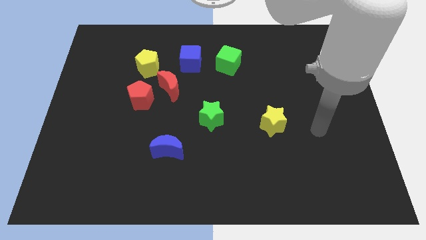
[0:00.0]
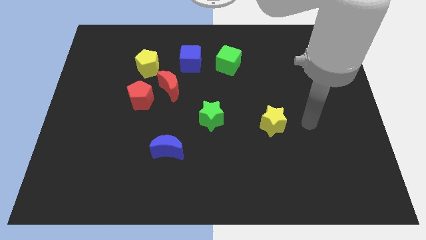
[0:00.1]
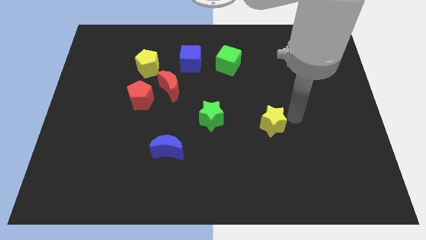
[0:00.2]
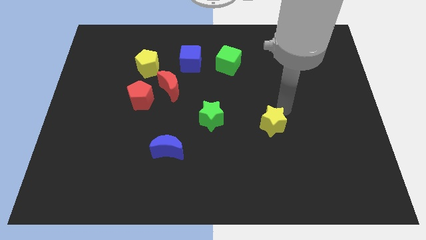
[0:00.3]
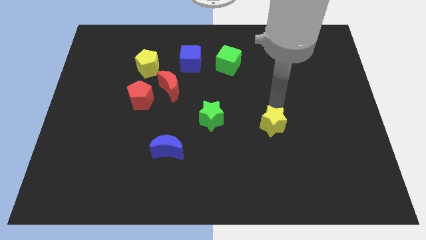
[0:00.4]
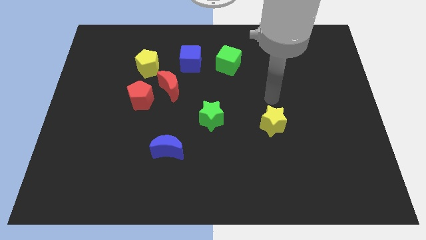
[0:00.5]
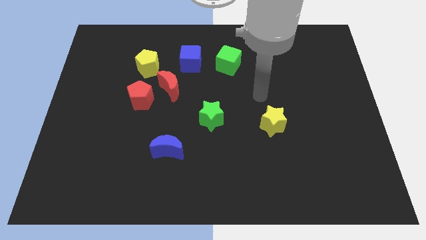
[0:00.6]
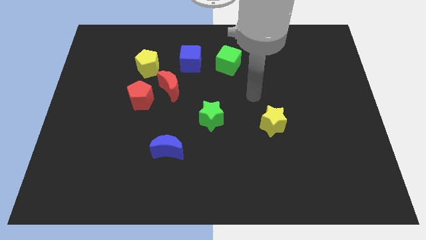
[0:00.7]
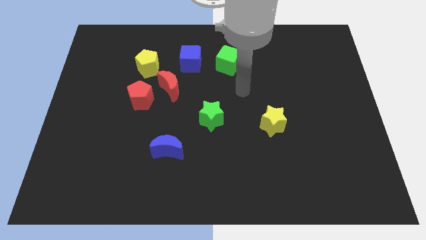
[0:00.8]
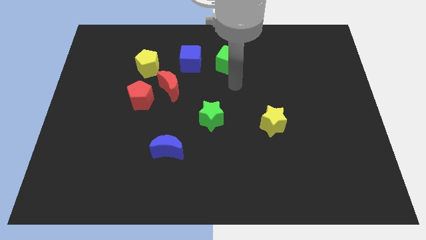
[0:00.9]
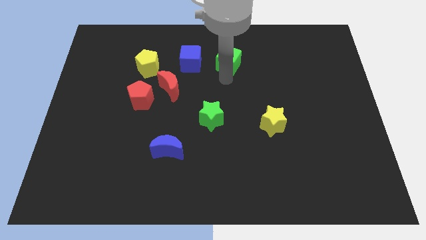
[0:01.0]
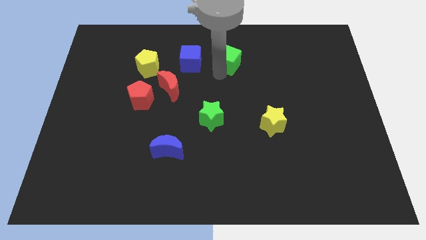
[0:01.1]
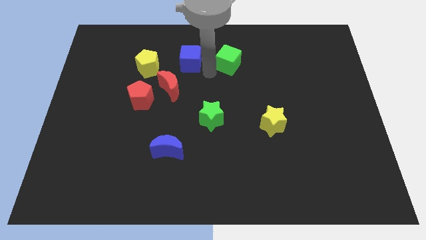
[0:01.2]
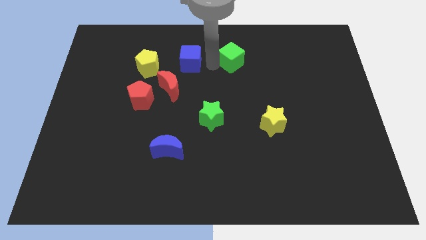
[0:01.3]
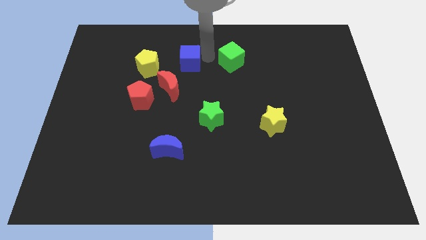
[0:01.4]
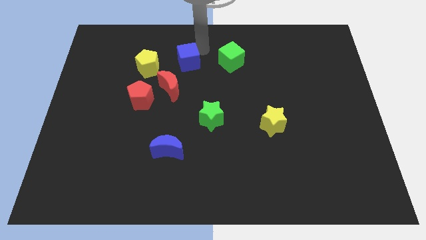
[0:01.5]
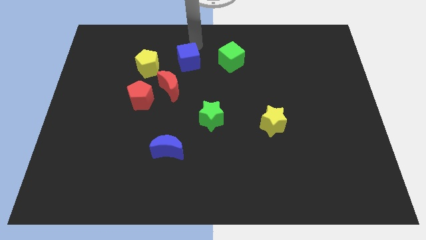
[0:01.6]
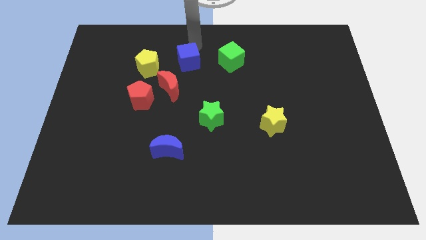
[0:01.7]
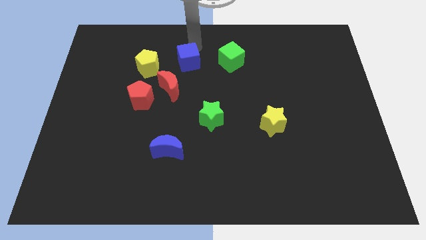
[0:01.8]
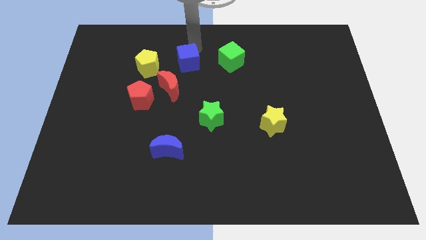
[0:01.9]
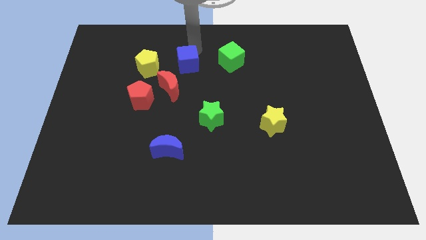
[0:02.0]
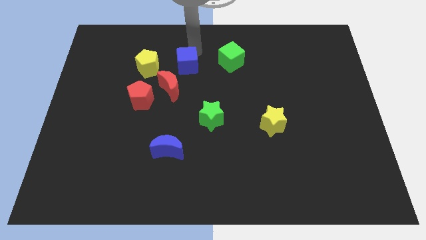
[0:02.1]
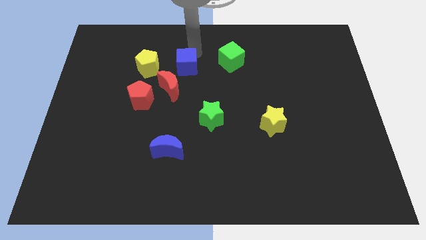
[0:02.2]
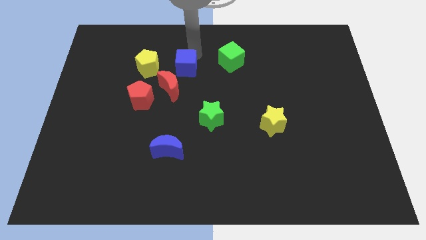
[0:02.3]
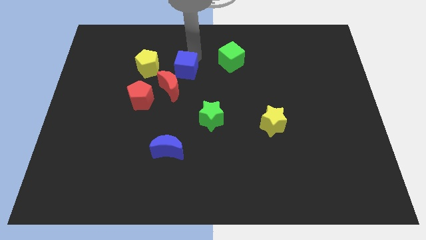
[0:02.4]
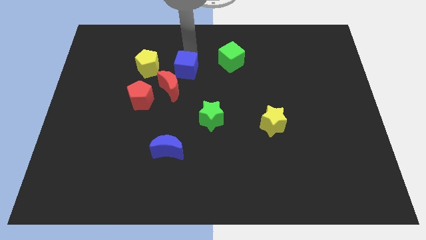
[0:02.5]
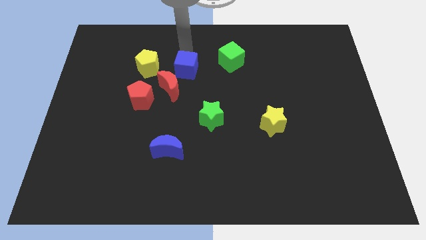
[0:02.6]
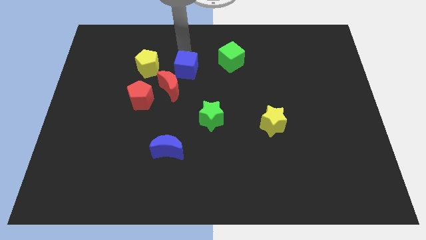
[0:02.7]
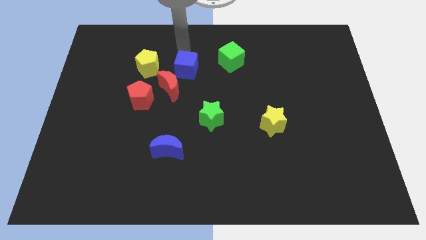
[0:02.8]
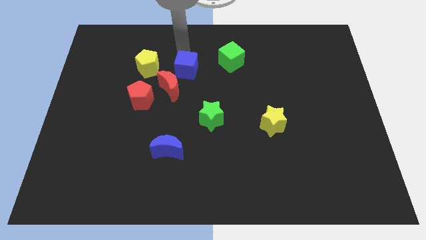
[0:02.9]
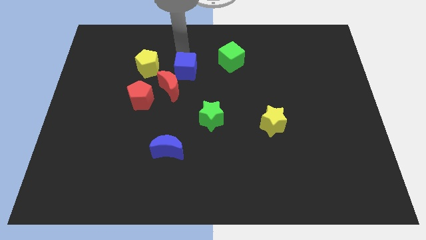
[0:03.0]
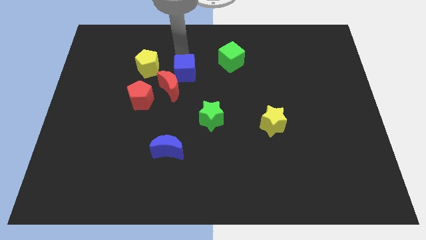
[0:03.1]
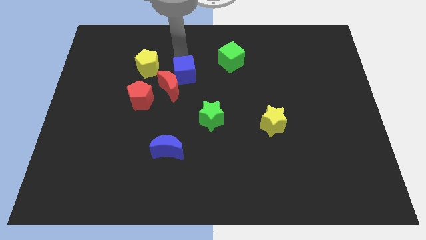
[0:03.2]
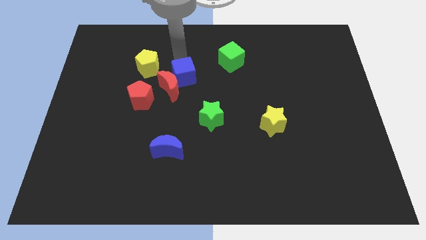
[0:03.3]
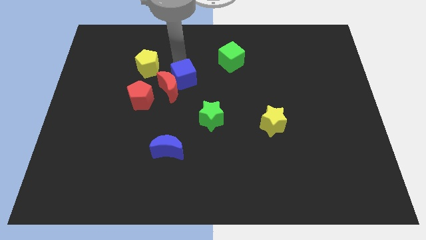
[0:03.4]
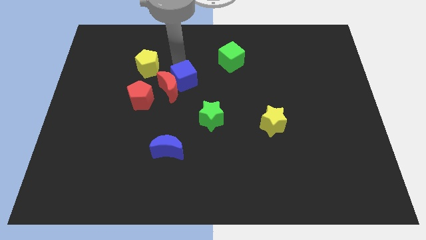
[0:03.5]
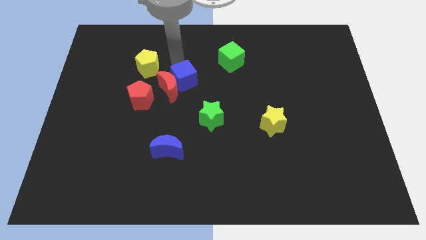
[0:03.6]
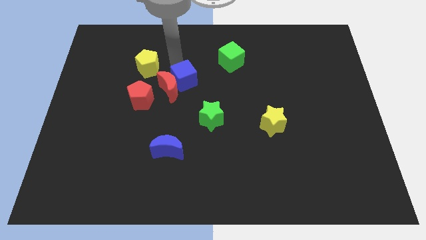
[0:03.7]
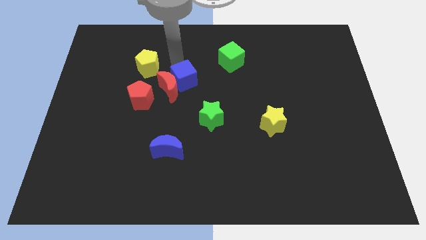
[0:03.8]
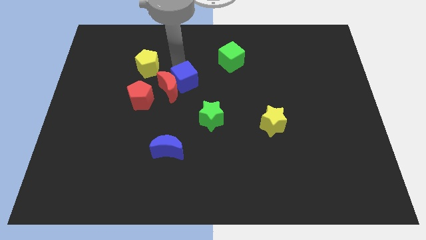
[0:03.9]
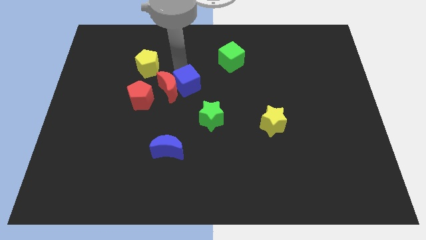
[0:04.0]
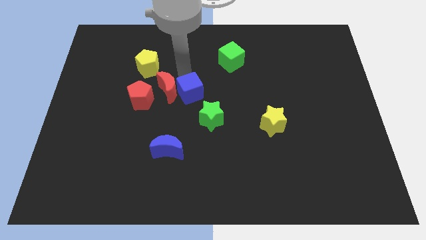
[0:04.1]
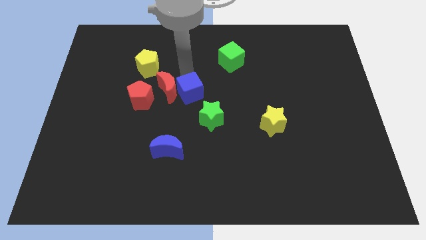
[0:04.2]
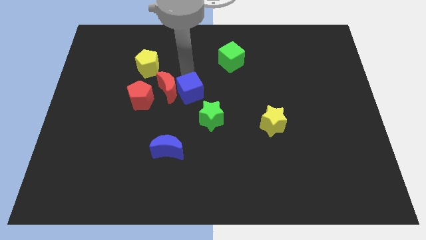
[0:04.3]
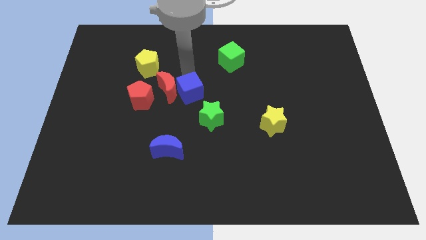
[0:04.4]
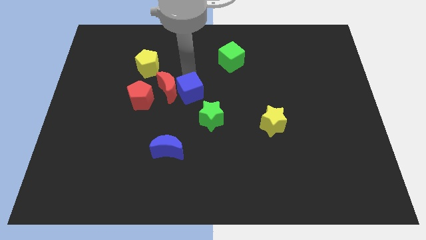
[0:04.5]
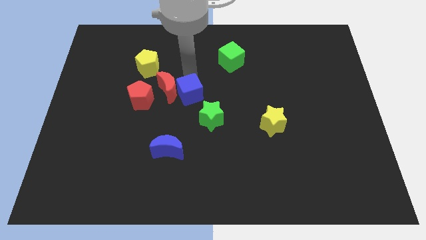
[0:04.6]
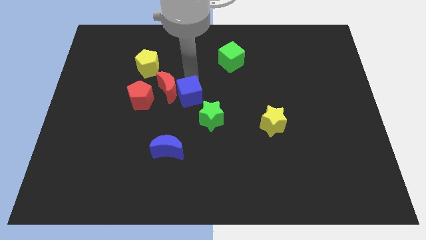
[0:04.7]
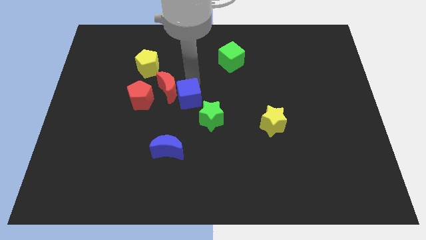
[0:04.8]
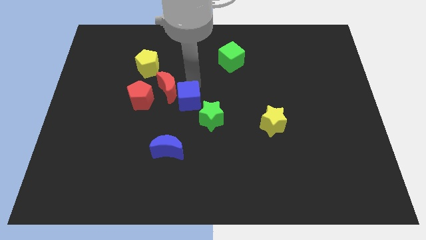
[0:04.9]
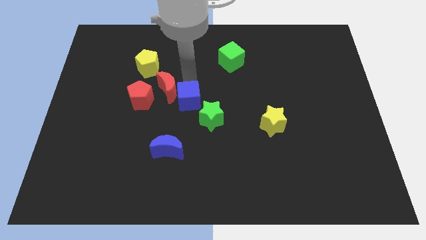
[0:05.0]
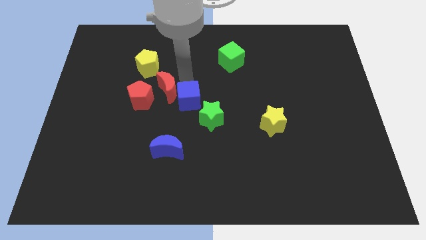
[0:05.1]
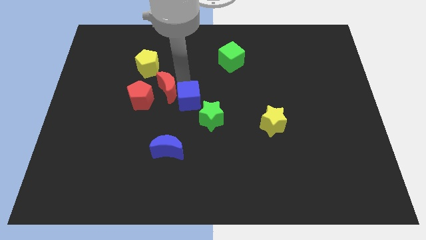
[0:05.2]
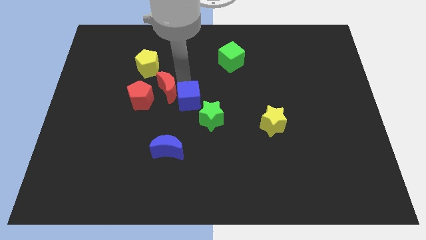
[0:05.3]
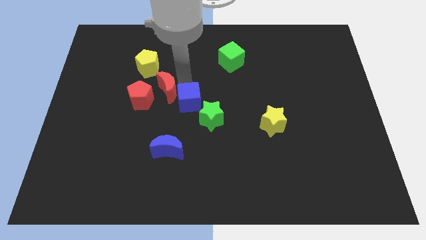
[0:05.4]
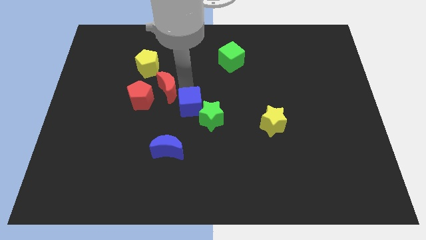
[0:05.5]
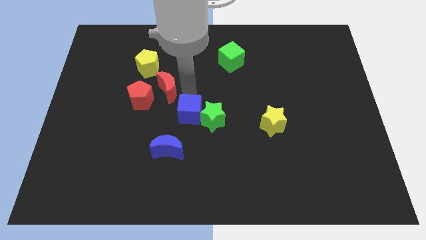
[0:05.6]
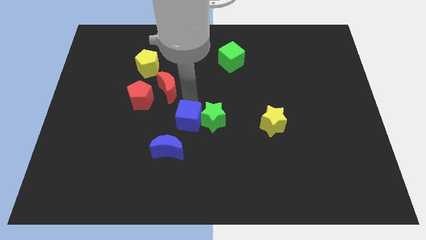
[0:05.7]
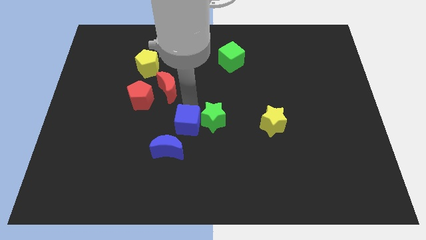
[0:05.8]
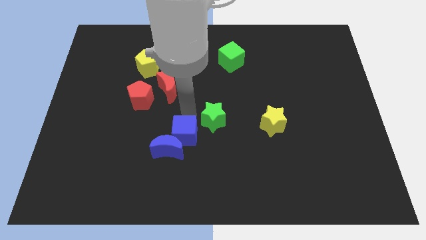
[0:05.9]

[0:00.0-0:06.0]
push the blue cube downwards

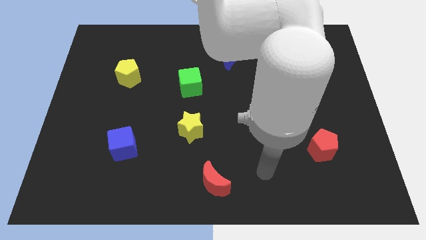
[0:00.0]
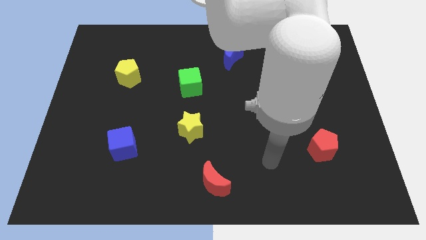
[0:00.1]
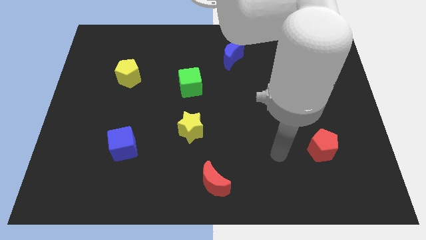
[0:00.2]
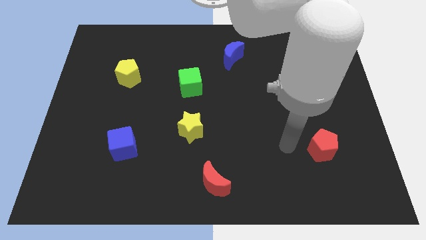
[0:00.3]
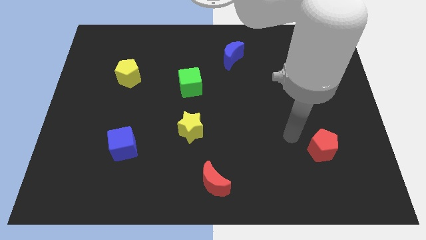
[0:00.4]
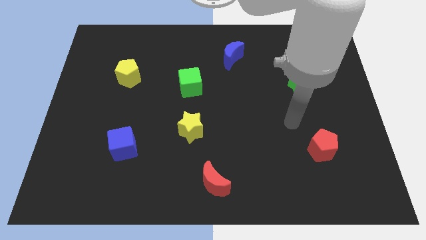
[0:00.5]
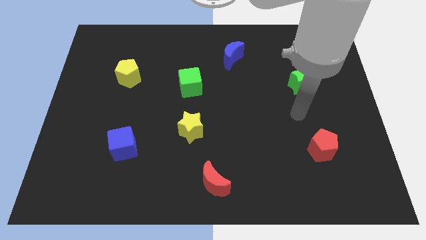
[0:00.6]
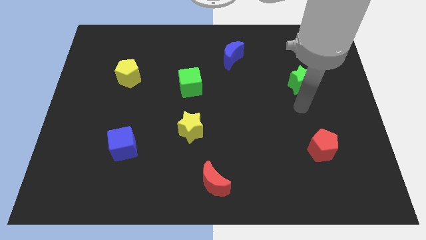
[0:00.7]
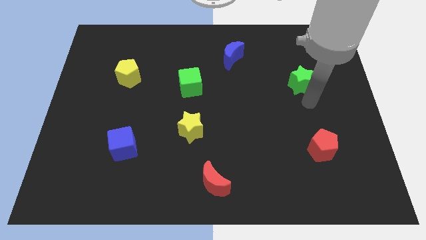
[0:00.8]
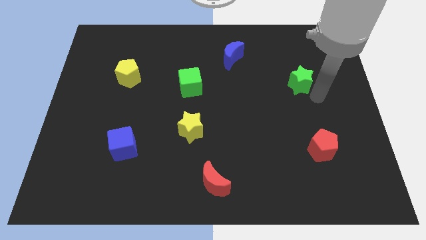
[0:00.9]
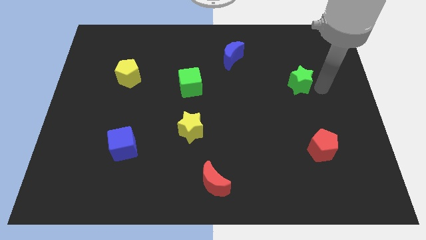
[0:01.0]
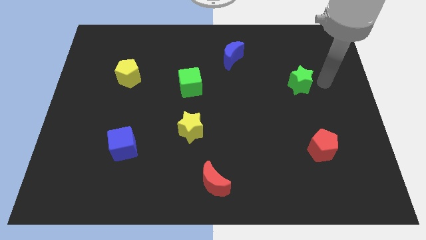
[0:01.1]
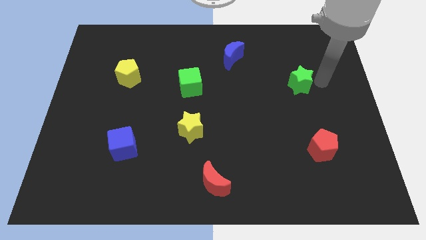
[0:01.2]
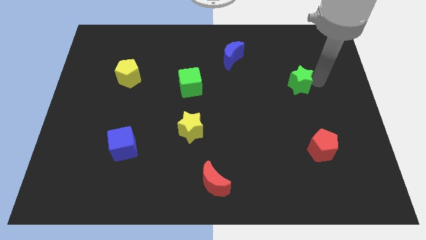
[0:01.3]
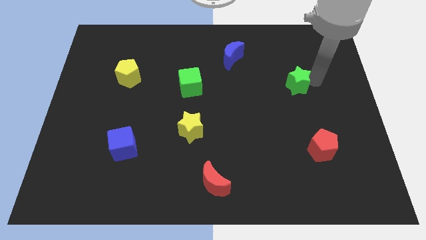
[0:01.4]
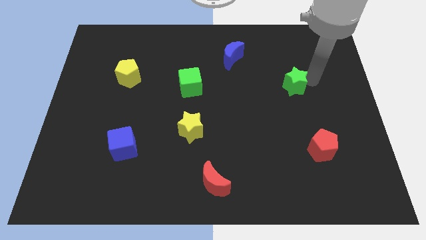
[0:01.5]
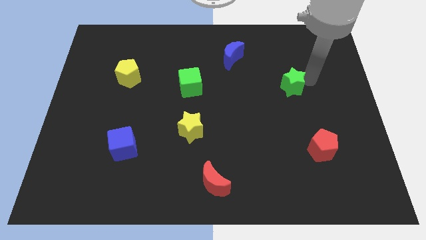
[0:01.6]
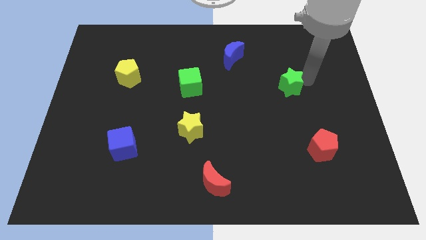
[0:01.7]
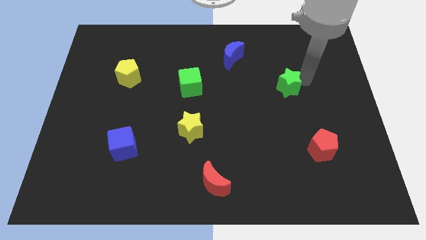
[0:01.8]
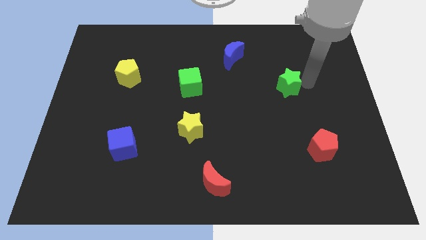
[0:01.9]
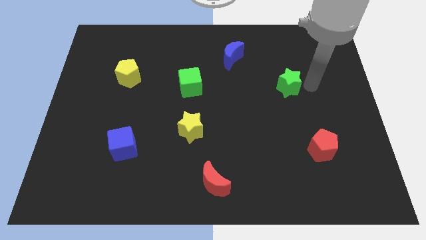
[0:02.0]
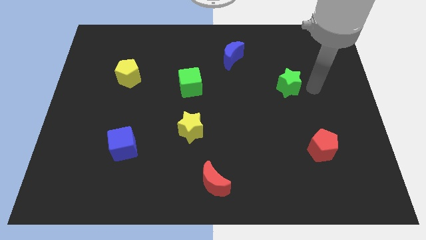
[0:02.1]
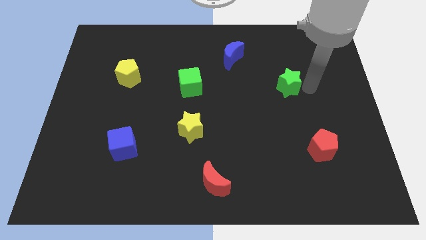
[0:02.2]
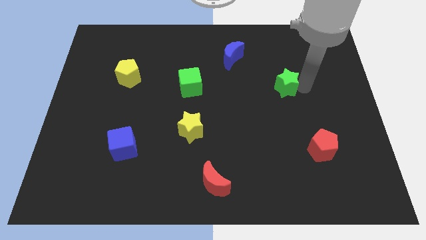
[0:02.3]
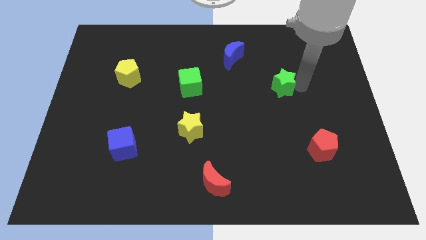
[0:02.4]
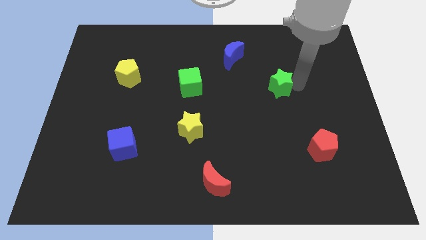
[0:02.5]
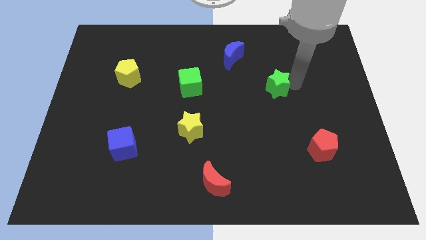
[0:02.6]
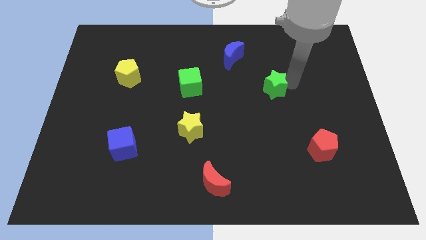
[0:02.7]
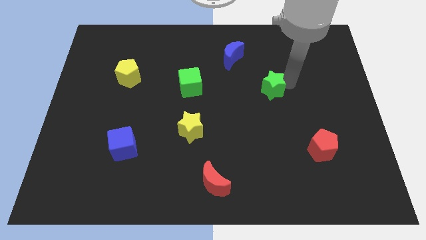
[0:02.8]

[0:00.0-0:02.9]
push the green star somewhat to the left
